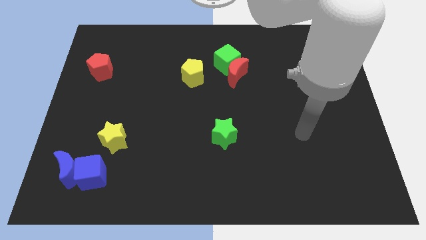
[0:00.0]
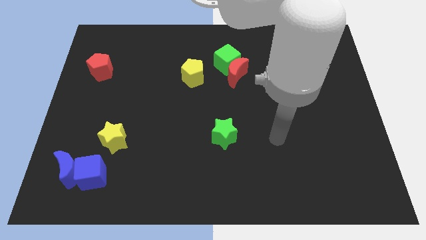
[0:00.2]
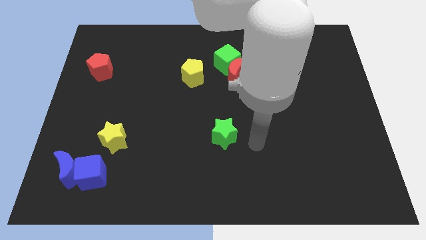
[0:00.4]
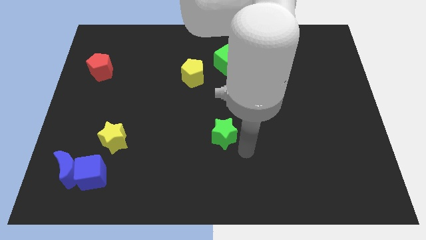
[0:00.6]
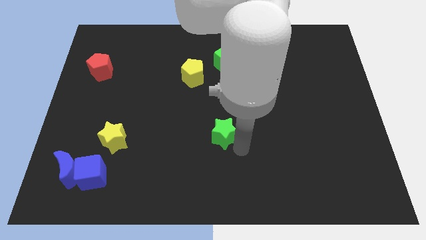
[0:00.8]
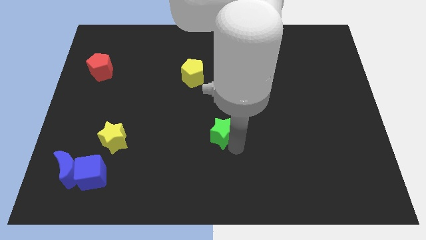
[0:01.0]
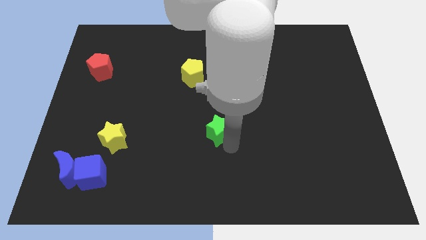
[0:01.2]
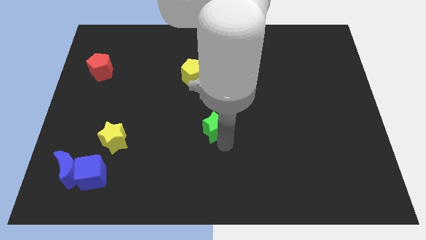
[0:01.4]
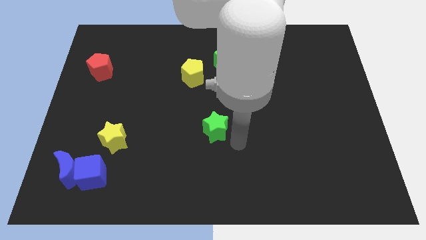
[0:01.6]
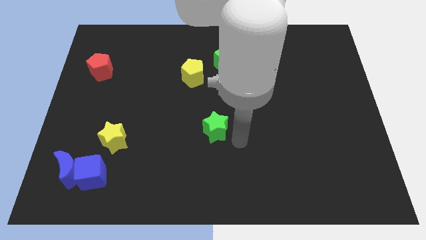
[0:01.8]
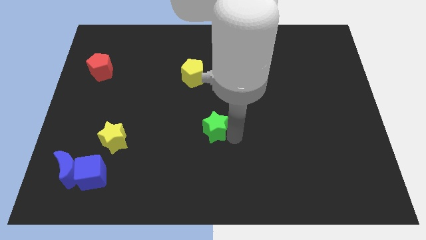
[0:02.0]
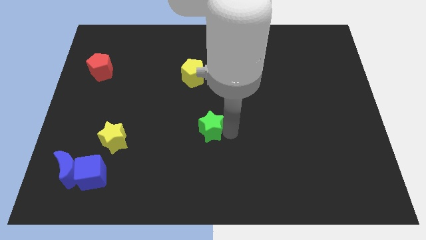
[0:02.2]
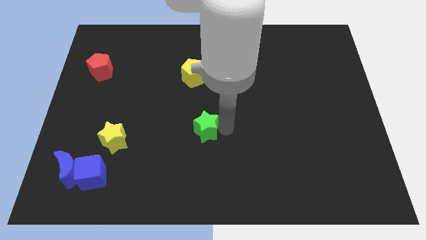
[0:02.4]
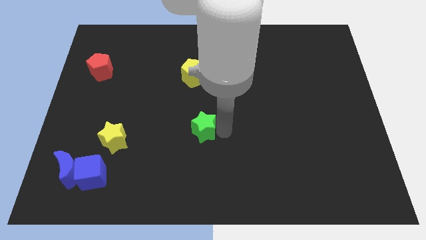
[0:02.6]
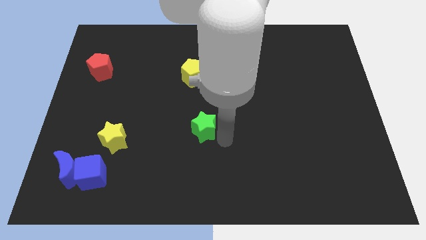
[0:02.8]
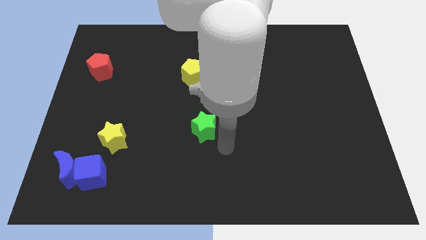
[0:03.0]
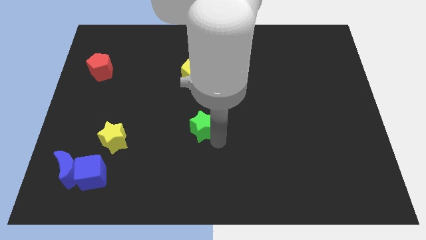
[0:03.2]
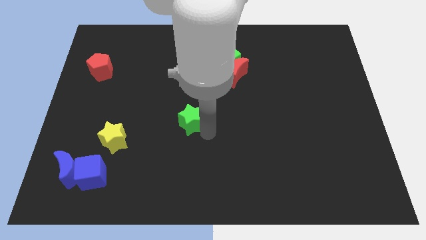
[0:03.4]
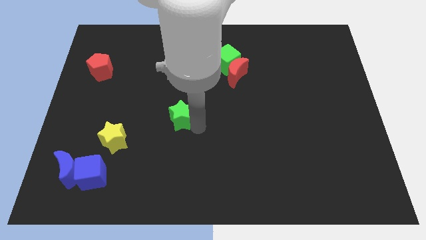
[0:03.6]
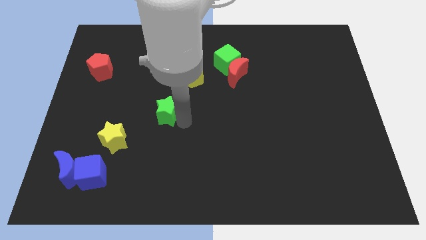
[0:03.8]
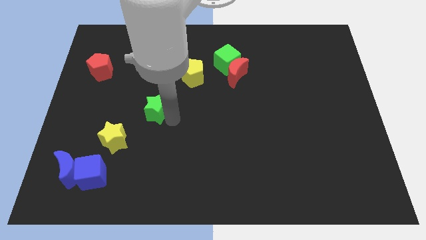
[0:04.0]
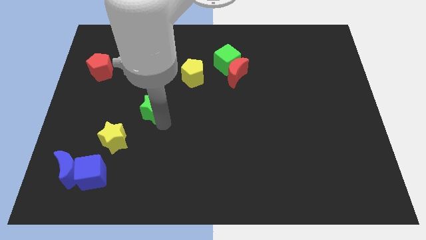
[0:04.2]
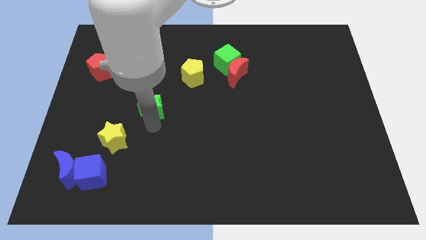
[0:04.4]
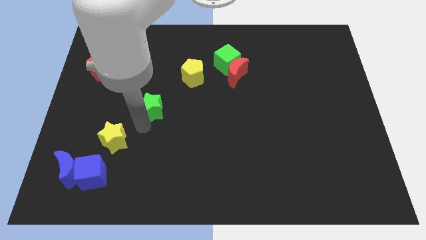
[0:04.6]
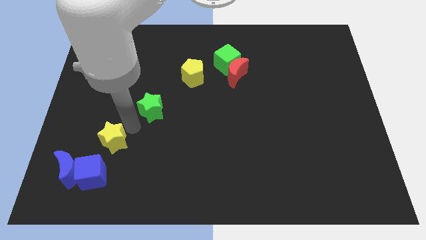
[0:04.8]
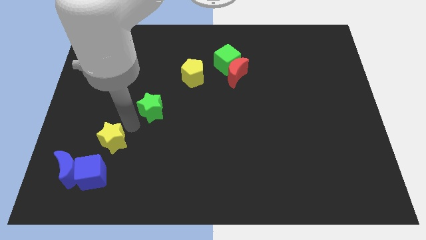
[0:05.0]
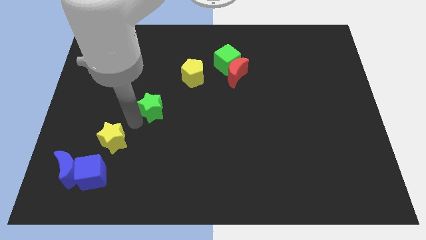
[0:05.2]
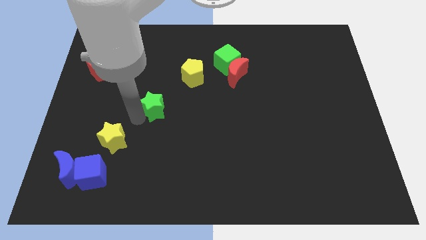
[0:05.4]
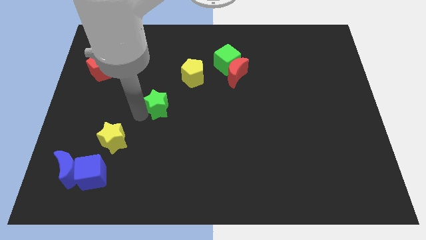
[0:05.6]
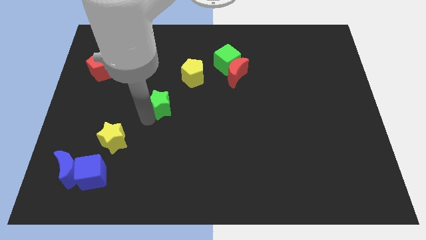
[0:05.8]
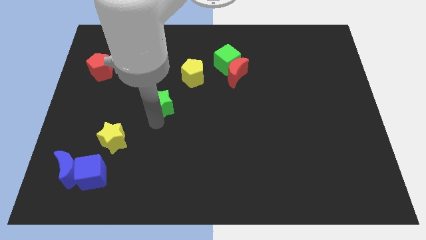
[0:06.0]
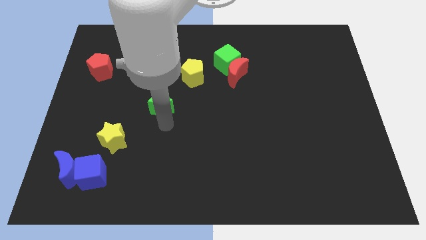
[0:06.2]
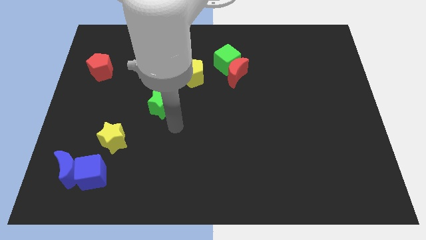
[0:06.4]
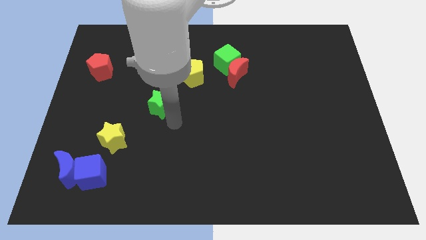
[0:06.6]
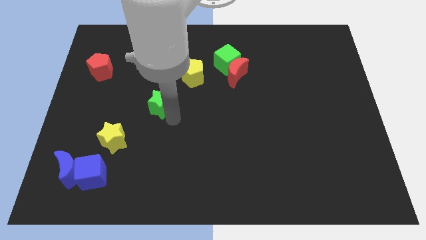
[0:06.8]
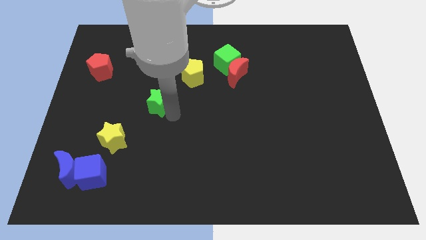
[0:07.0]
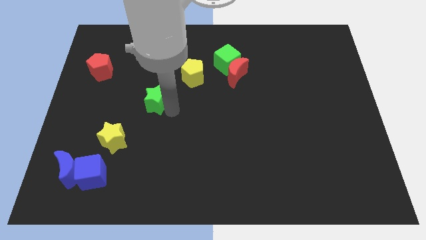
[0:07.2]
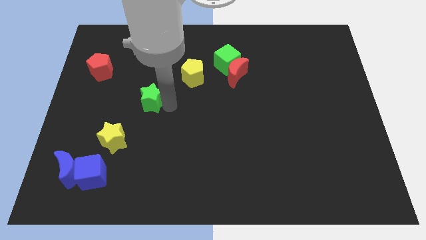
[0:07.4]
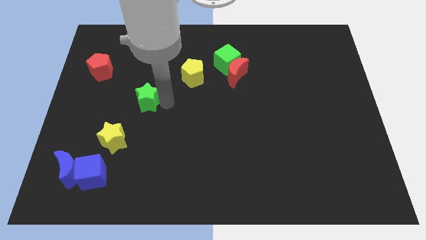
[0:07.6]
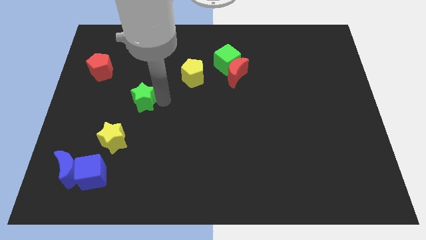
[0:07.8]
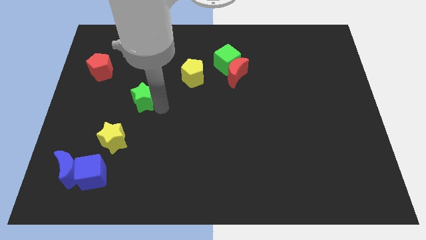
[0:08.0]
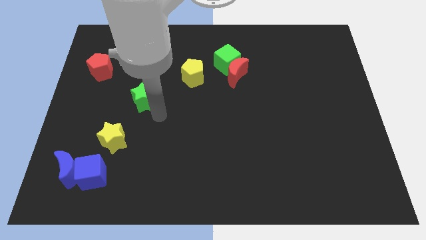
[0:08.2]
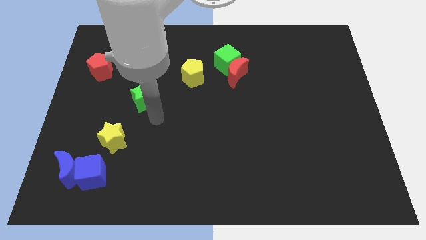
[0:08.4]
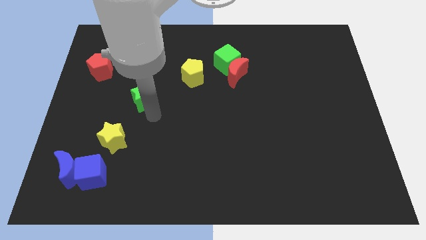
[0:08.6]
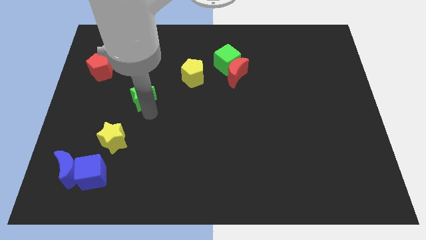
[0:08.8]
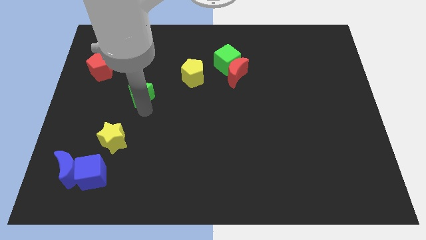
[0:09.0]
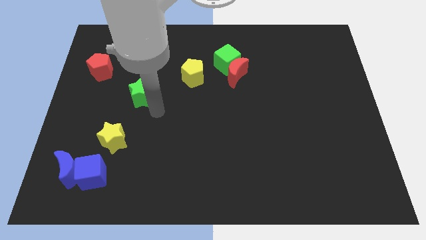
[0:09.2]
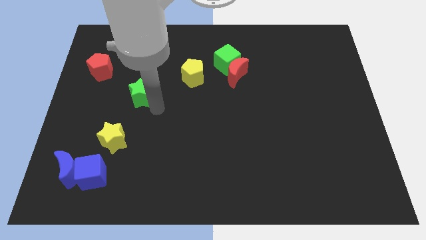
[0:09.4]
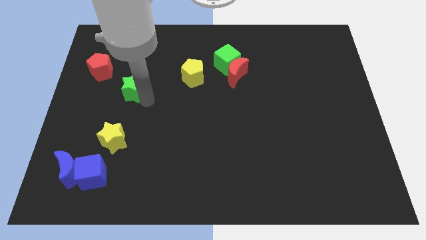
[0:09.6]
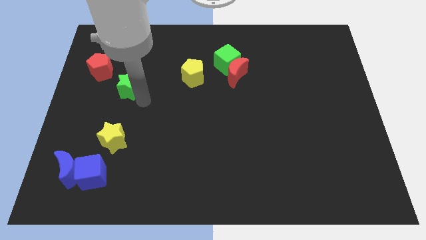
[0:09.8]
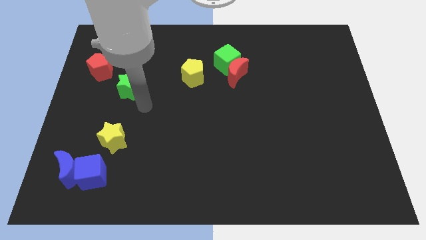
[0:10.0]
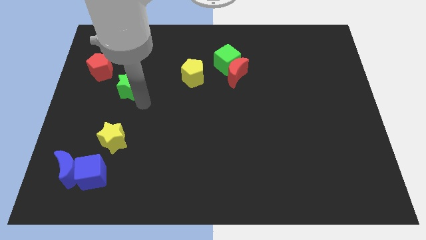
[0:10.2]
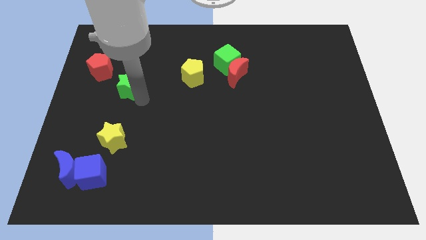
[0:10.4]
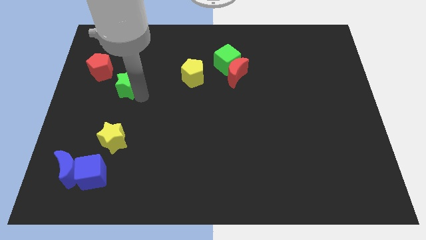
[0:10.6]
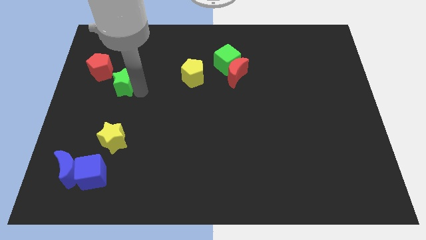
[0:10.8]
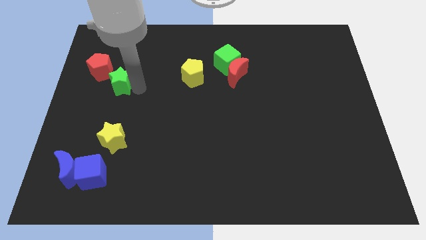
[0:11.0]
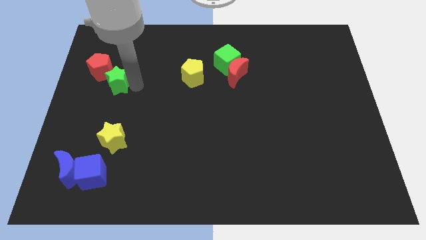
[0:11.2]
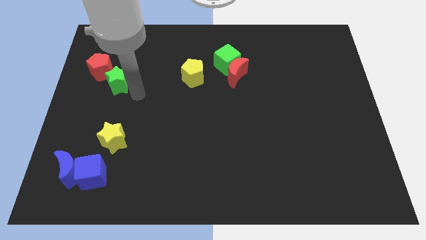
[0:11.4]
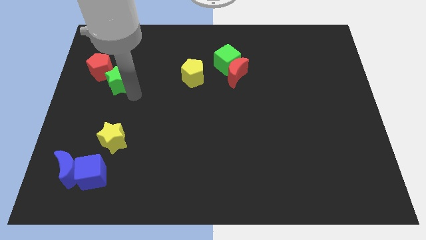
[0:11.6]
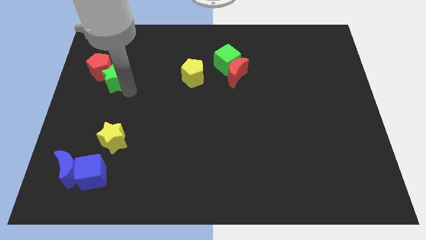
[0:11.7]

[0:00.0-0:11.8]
push the green star to the red pentagon
